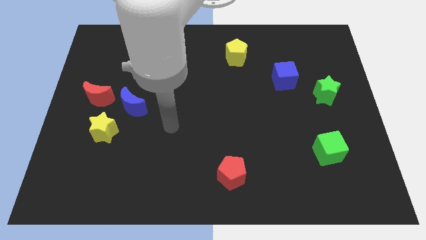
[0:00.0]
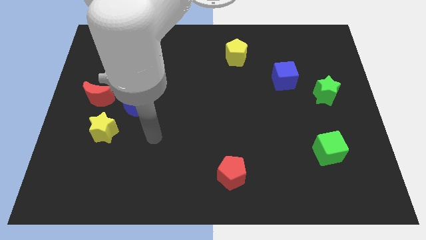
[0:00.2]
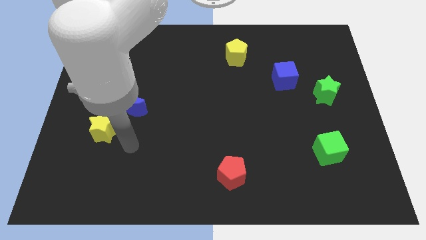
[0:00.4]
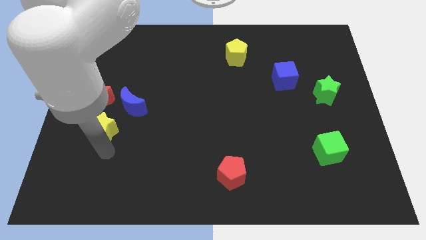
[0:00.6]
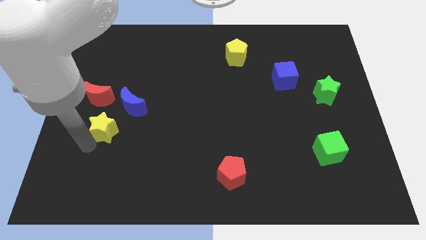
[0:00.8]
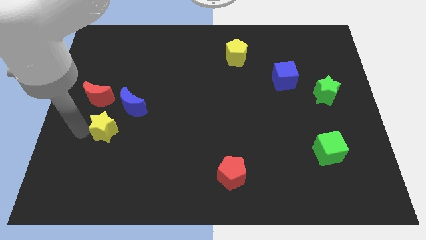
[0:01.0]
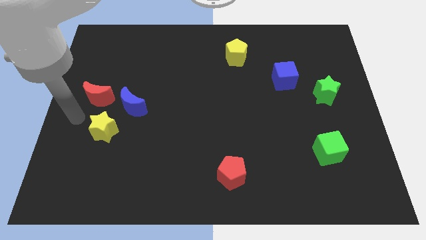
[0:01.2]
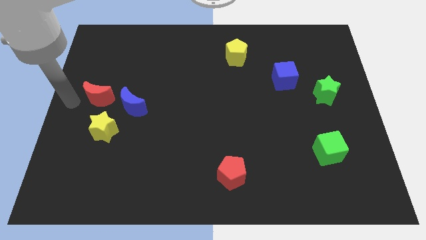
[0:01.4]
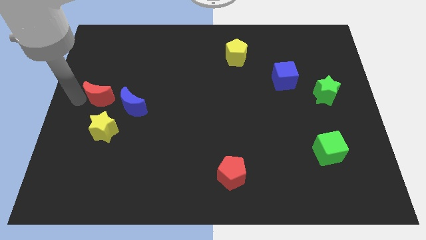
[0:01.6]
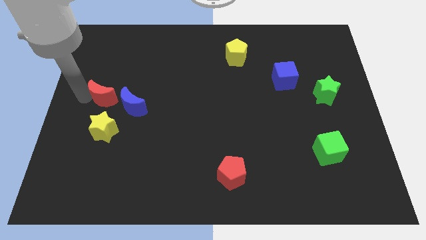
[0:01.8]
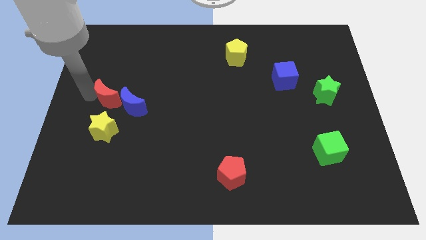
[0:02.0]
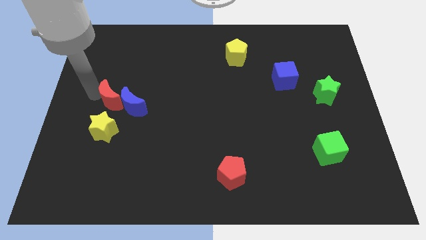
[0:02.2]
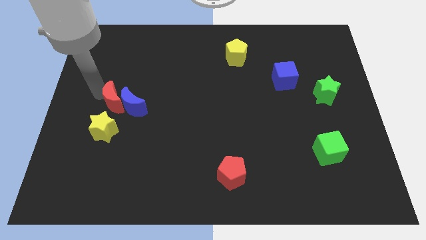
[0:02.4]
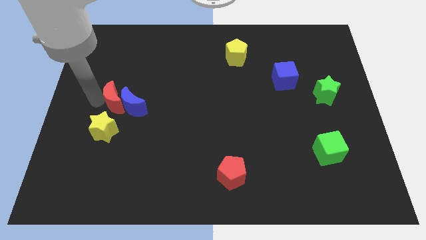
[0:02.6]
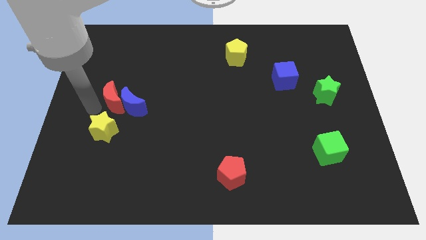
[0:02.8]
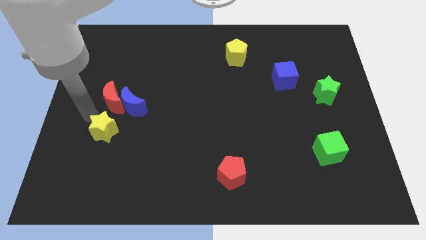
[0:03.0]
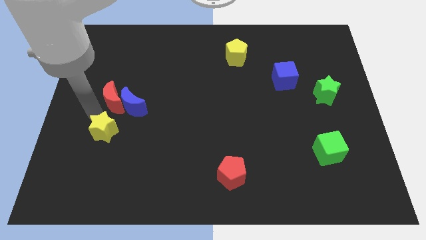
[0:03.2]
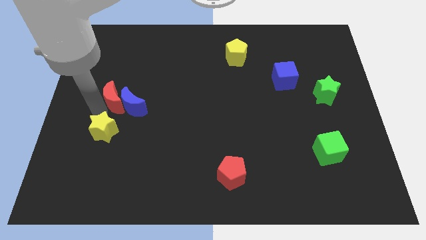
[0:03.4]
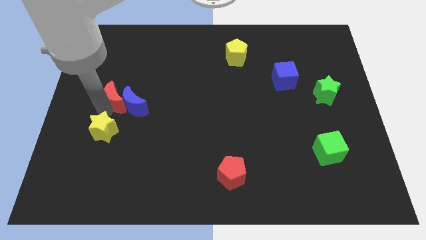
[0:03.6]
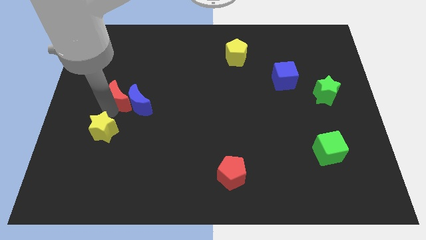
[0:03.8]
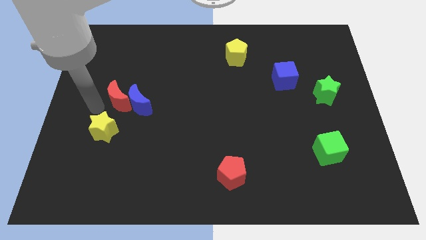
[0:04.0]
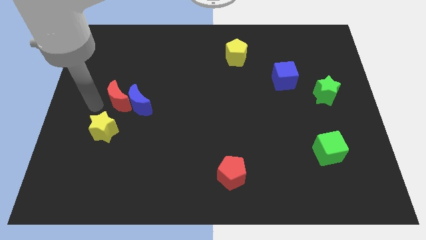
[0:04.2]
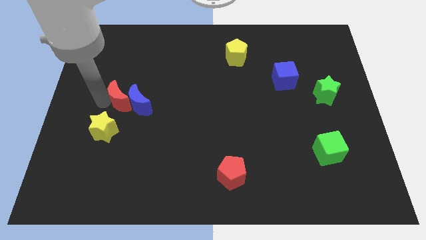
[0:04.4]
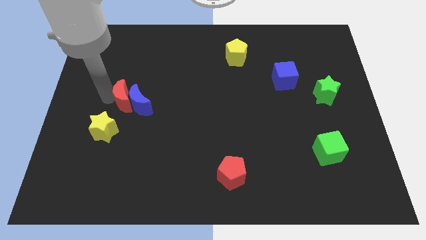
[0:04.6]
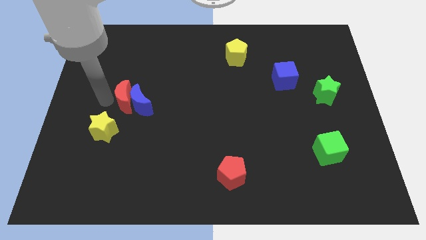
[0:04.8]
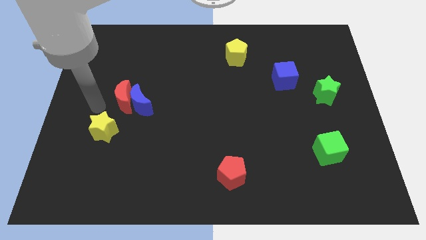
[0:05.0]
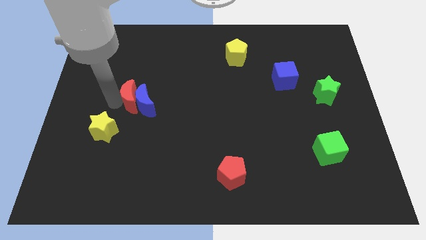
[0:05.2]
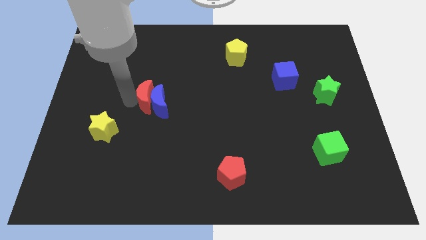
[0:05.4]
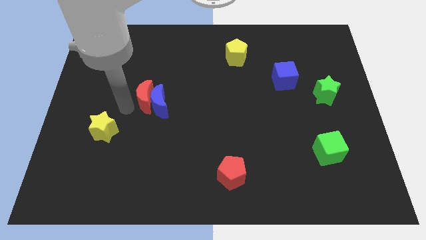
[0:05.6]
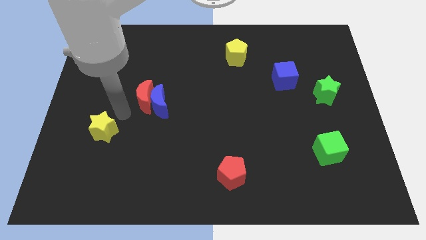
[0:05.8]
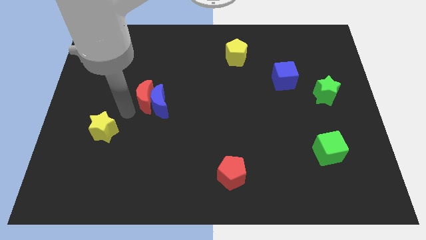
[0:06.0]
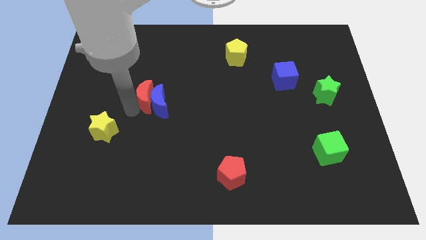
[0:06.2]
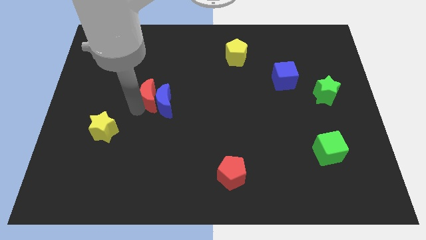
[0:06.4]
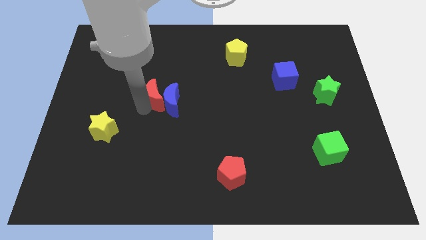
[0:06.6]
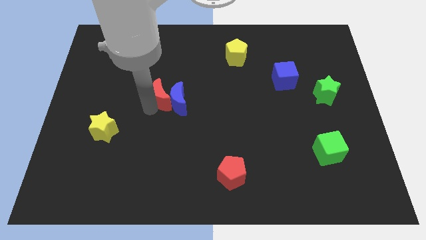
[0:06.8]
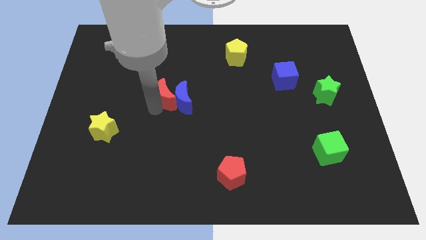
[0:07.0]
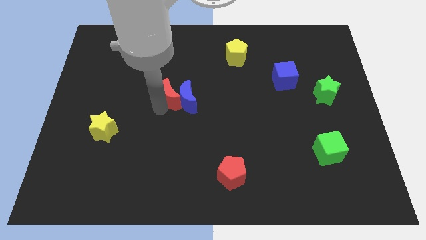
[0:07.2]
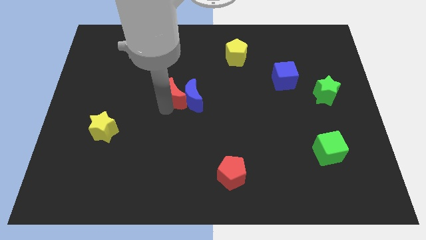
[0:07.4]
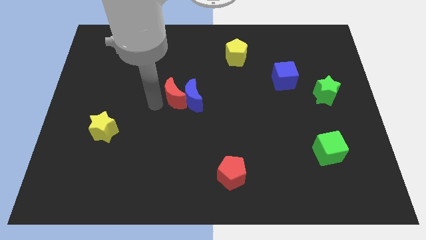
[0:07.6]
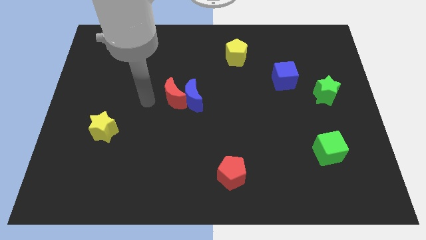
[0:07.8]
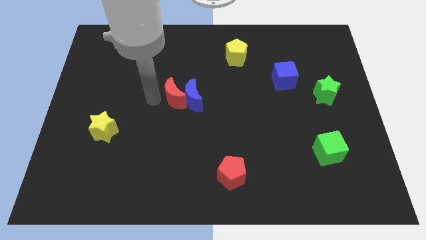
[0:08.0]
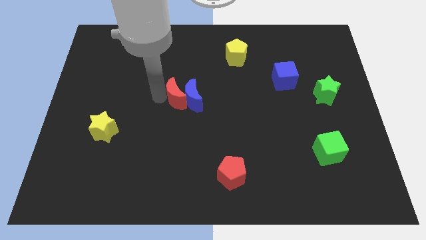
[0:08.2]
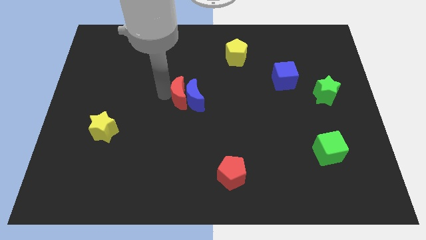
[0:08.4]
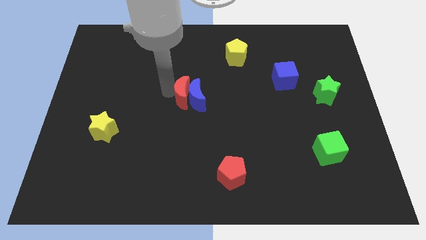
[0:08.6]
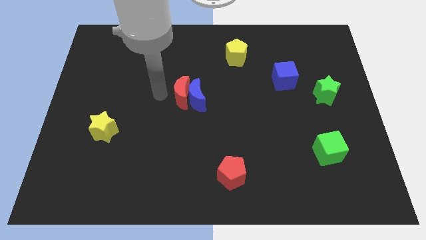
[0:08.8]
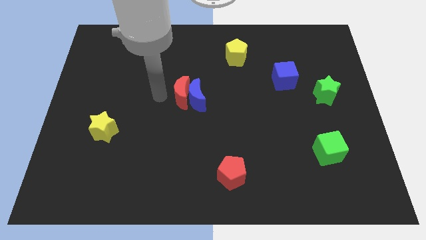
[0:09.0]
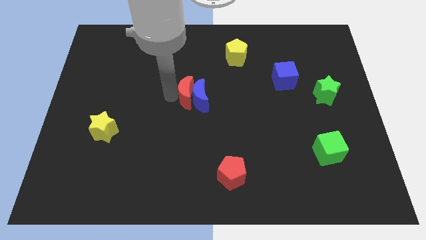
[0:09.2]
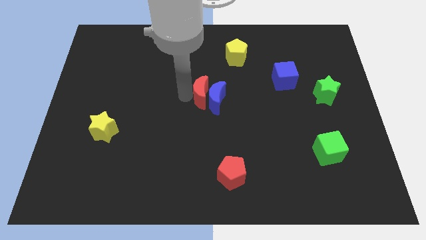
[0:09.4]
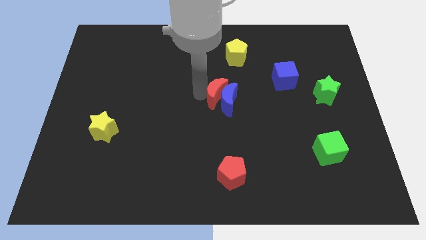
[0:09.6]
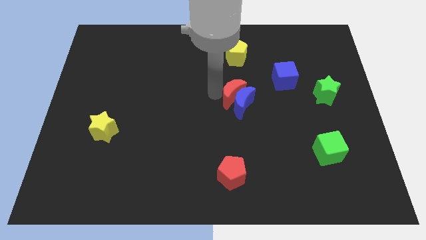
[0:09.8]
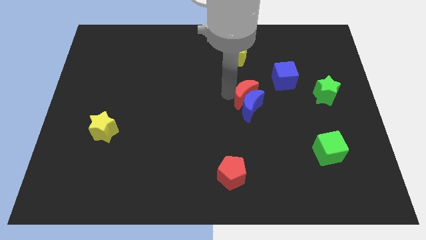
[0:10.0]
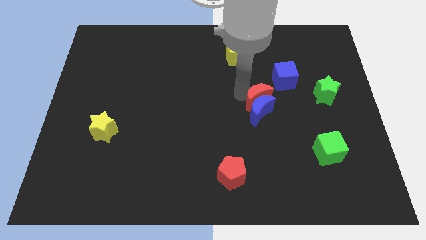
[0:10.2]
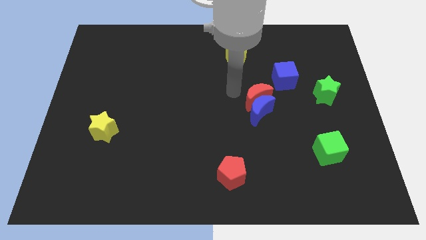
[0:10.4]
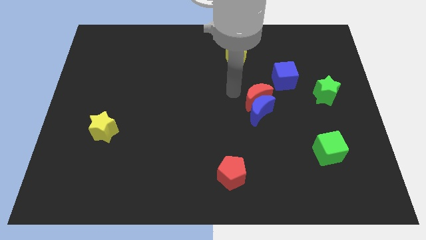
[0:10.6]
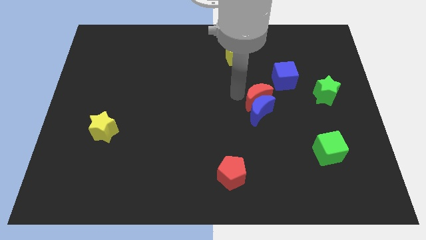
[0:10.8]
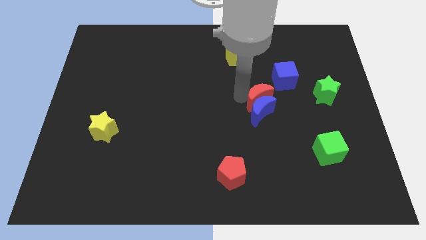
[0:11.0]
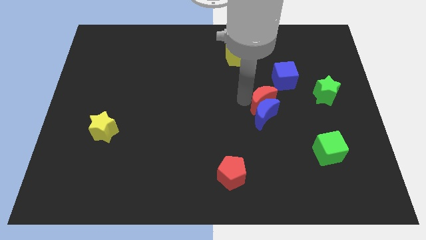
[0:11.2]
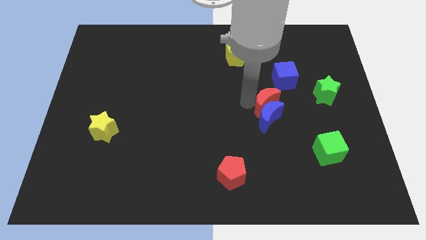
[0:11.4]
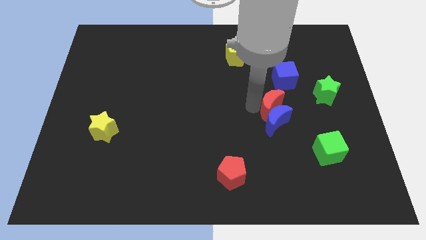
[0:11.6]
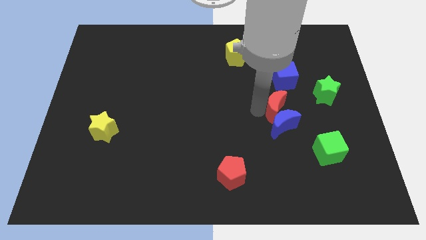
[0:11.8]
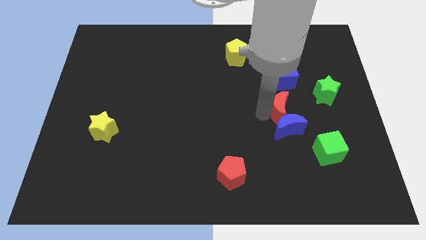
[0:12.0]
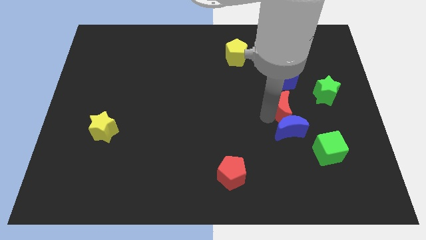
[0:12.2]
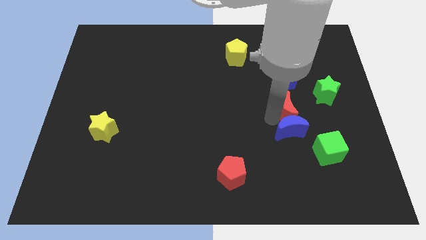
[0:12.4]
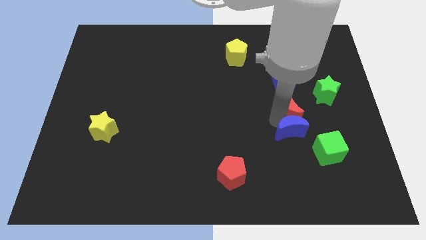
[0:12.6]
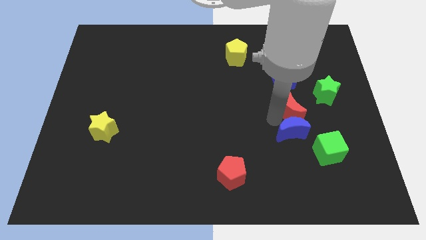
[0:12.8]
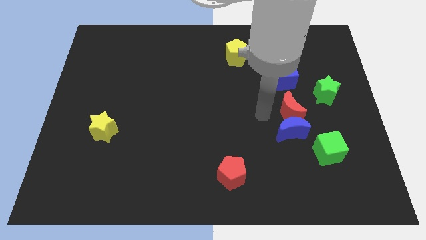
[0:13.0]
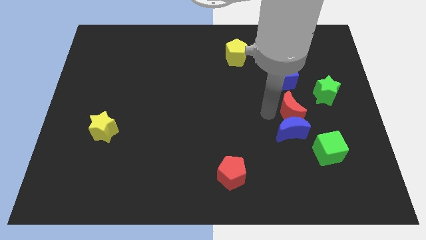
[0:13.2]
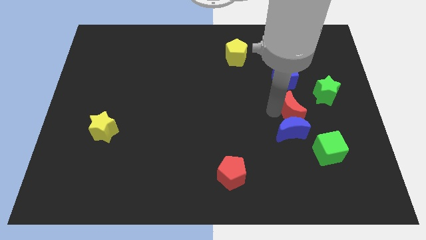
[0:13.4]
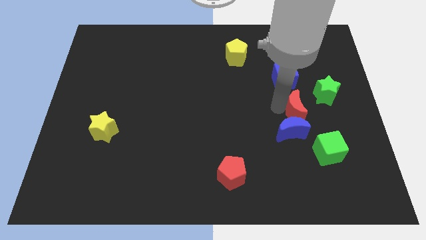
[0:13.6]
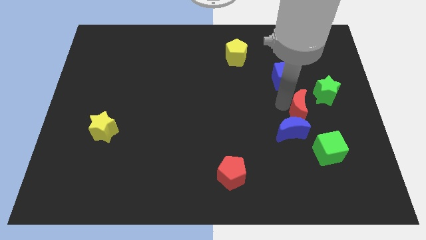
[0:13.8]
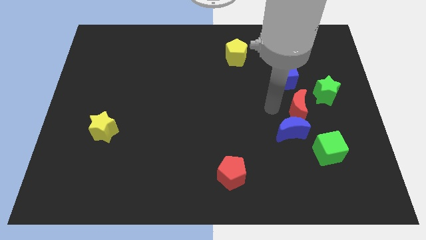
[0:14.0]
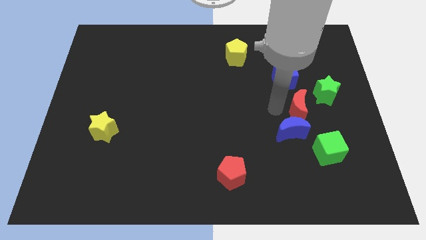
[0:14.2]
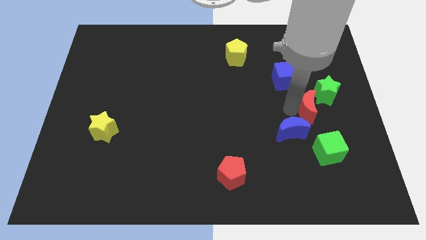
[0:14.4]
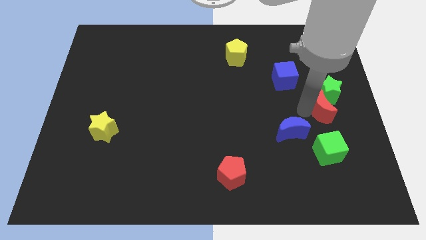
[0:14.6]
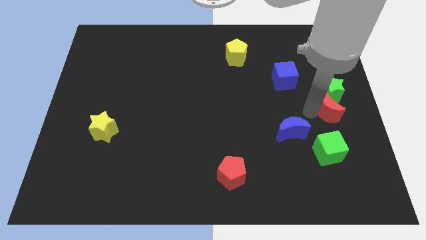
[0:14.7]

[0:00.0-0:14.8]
slide the red moon to the right side of the board
